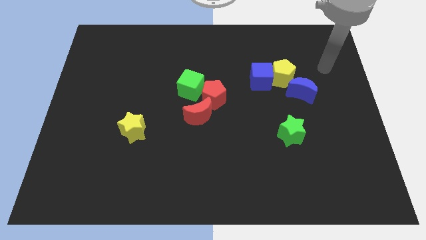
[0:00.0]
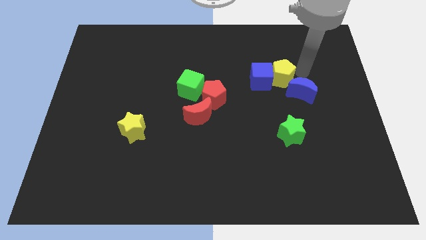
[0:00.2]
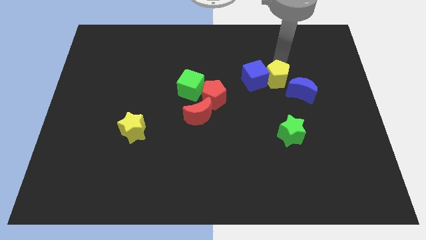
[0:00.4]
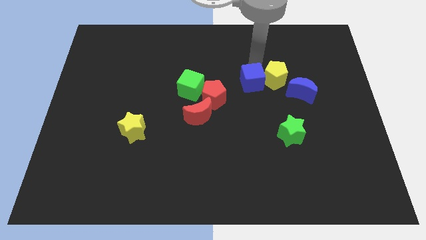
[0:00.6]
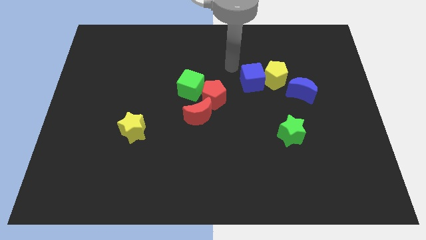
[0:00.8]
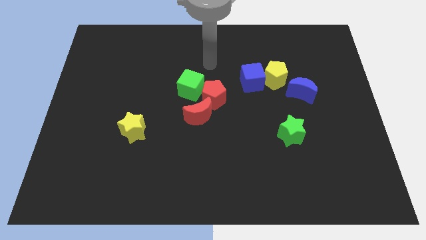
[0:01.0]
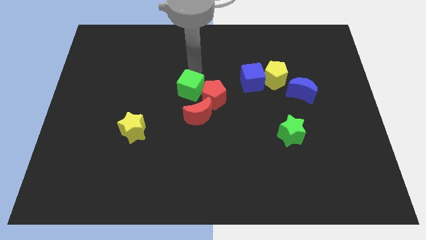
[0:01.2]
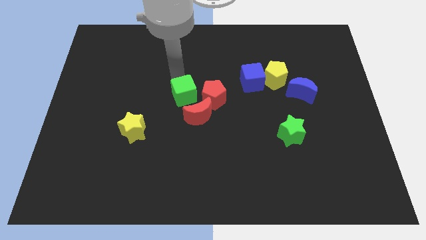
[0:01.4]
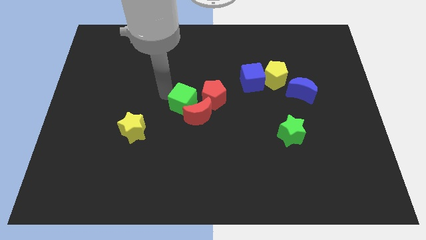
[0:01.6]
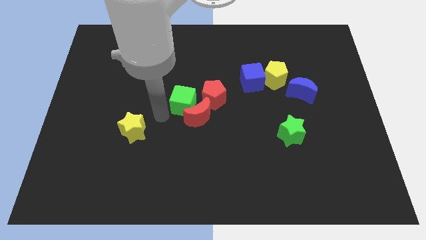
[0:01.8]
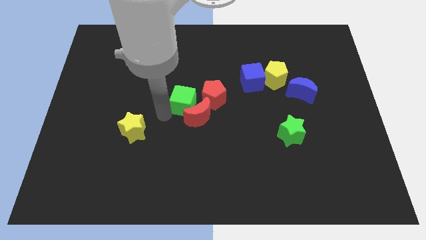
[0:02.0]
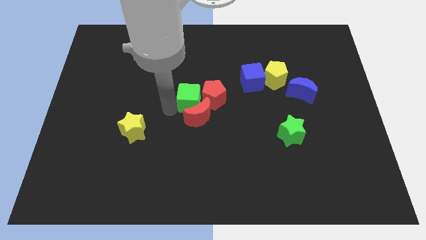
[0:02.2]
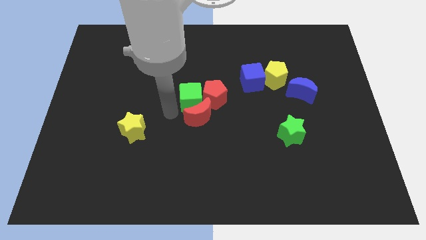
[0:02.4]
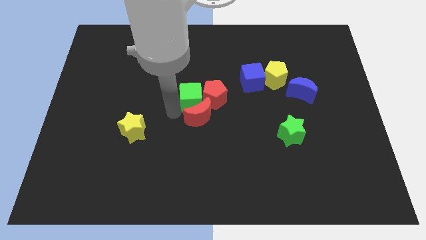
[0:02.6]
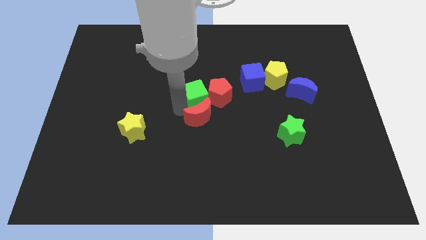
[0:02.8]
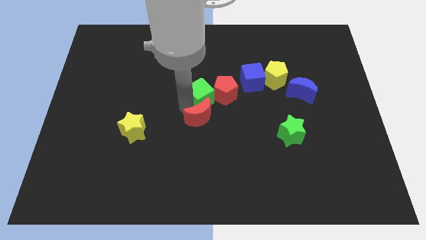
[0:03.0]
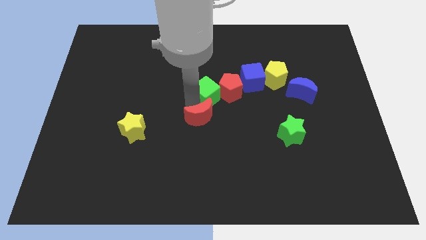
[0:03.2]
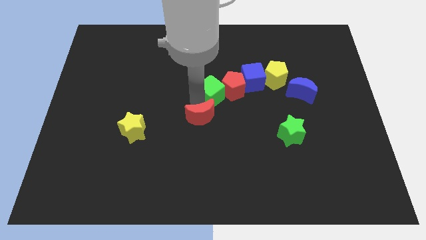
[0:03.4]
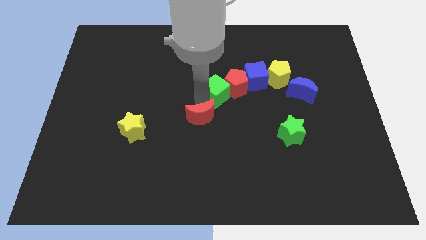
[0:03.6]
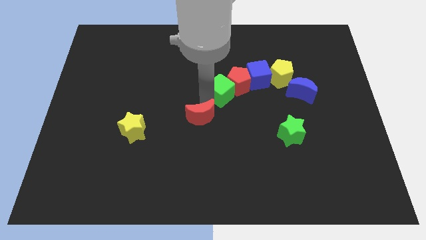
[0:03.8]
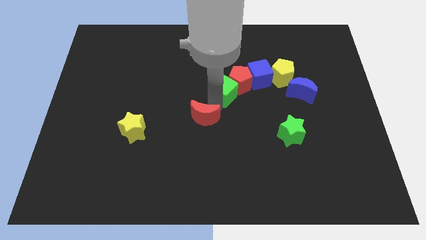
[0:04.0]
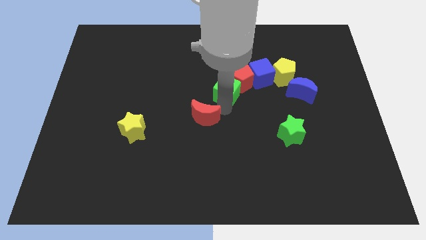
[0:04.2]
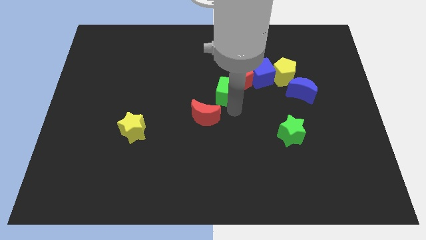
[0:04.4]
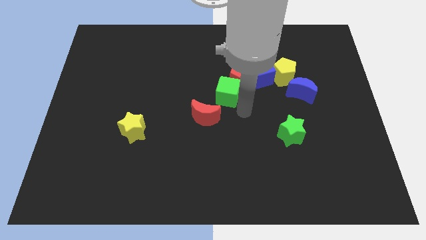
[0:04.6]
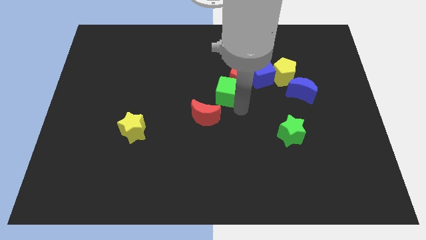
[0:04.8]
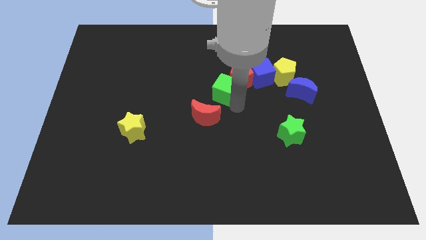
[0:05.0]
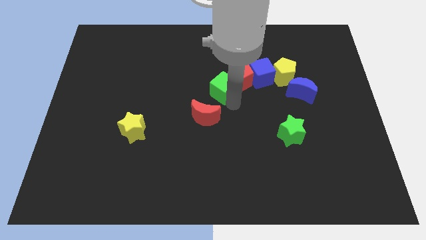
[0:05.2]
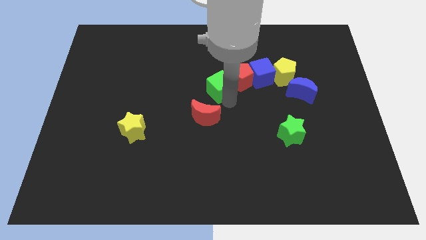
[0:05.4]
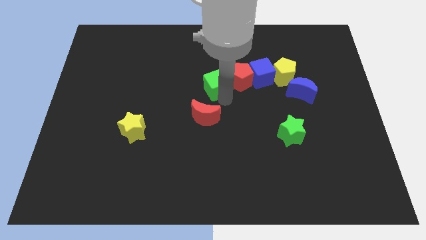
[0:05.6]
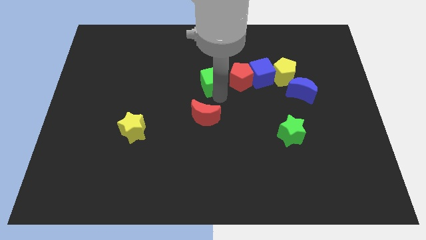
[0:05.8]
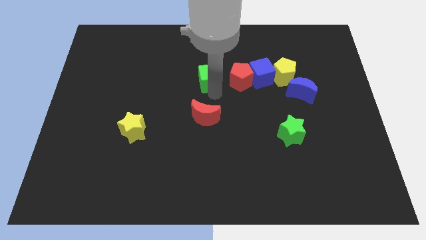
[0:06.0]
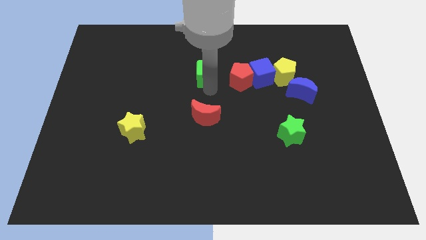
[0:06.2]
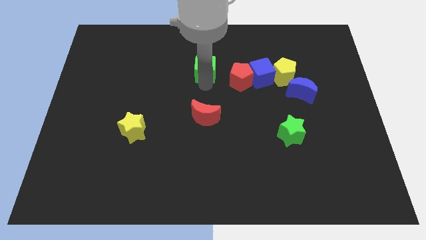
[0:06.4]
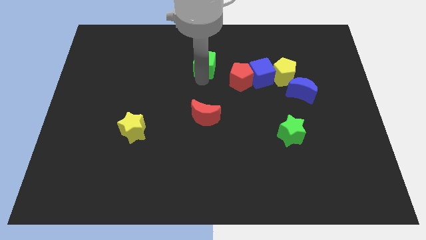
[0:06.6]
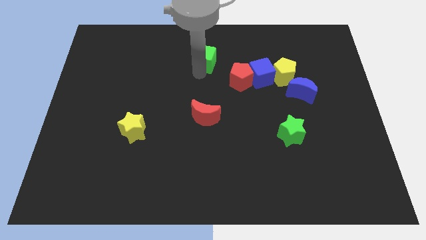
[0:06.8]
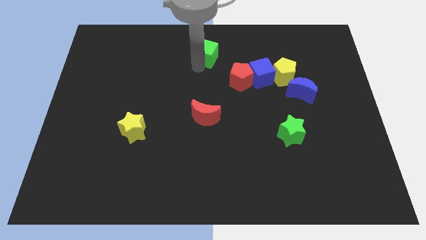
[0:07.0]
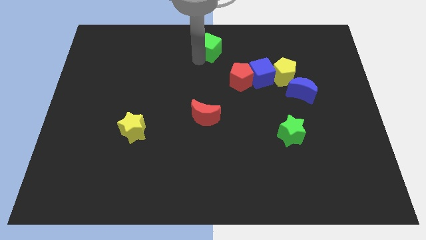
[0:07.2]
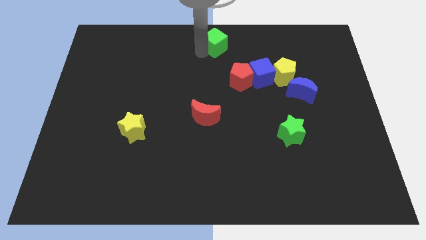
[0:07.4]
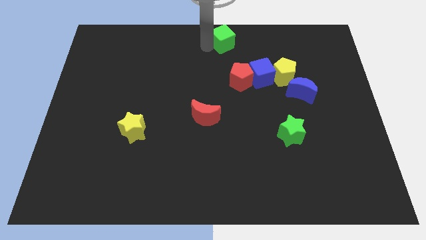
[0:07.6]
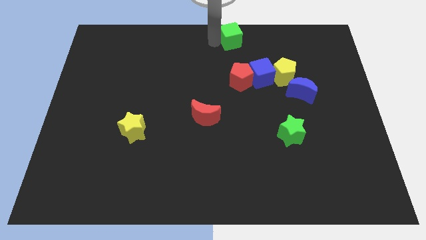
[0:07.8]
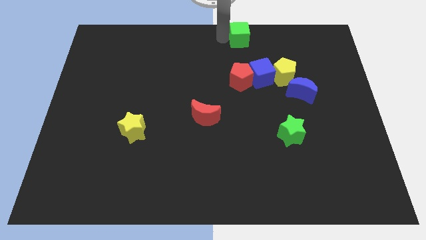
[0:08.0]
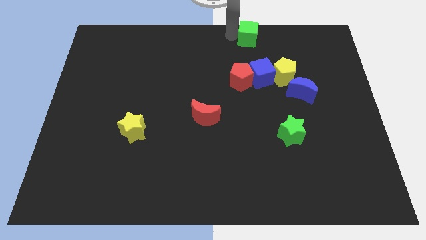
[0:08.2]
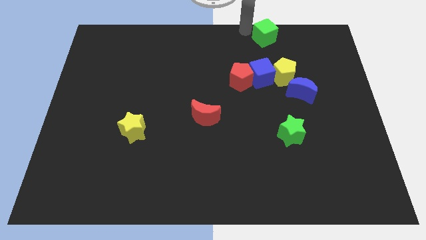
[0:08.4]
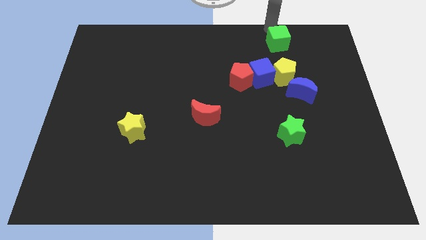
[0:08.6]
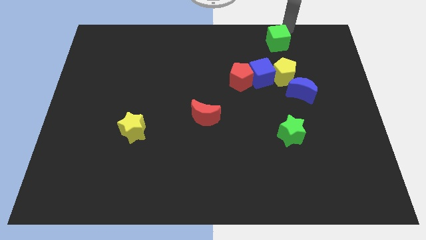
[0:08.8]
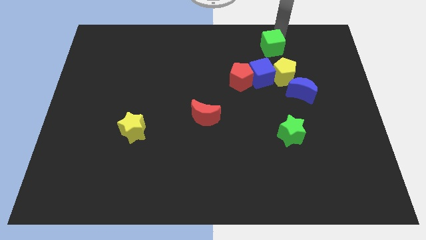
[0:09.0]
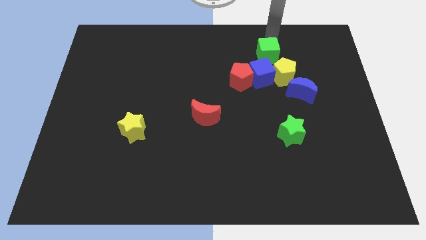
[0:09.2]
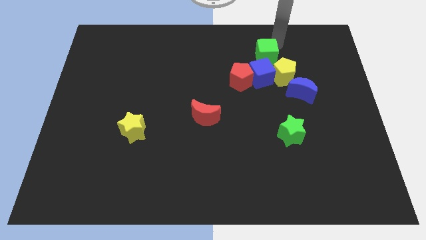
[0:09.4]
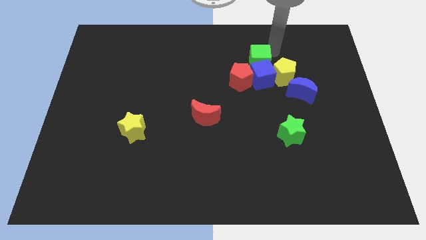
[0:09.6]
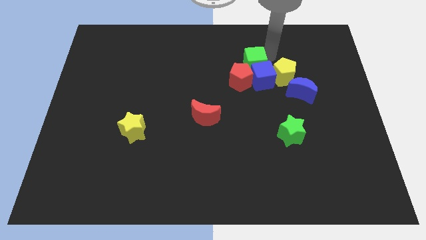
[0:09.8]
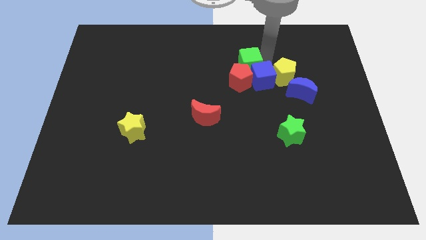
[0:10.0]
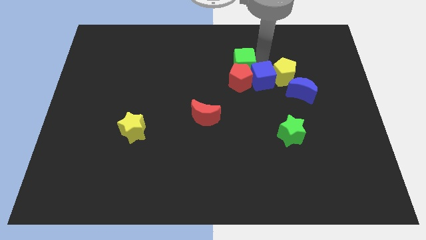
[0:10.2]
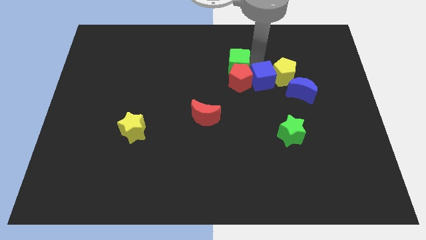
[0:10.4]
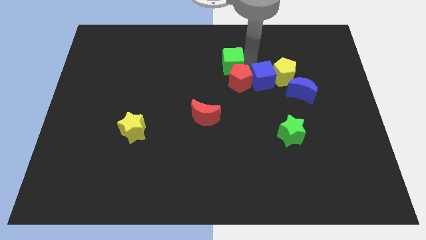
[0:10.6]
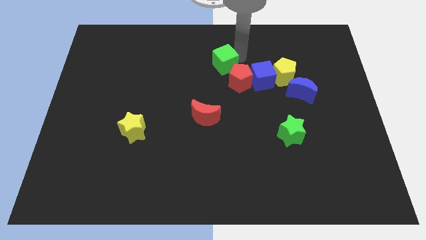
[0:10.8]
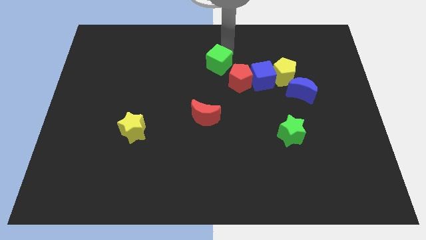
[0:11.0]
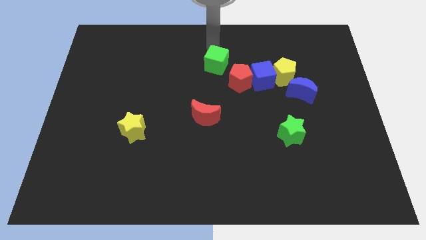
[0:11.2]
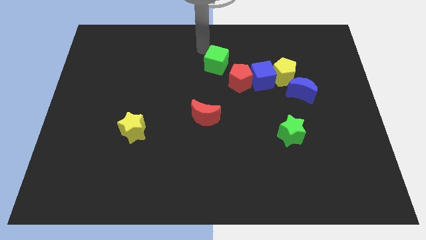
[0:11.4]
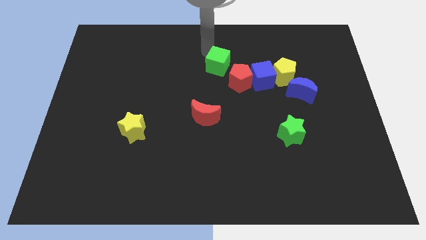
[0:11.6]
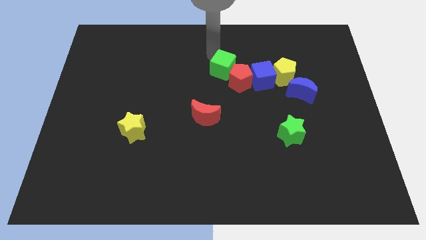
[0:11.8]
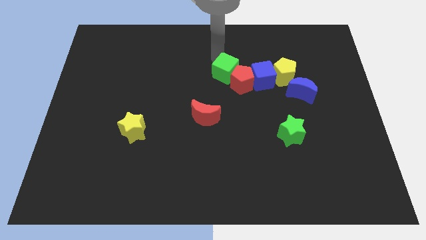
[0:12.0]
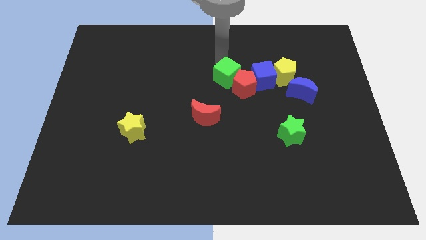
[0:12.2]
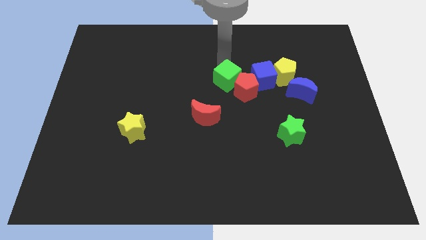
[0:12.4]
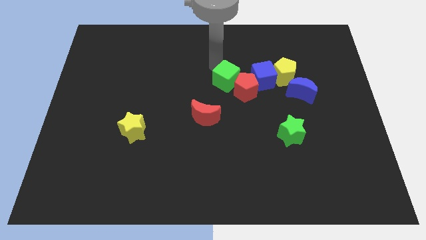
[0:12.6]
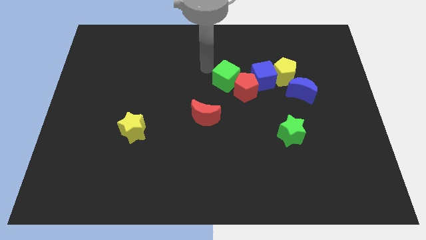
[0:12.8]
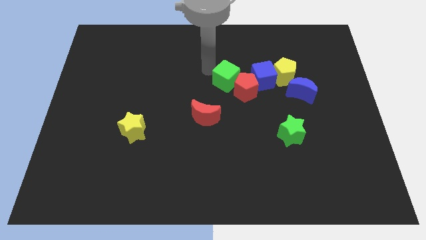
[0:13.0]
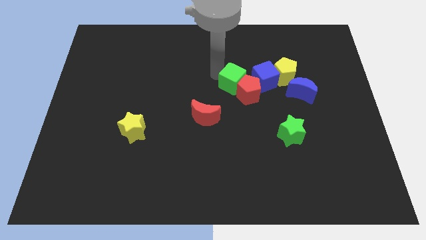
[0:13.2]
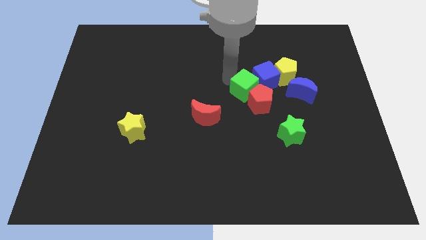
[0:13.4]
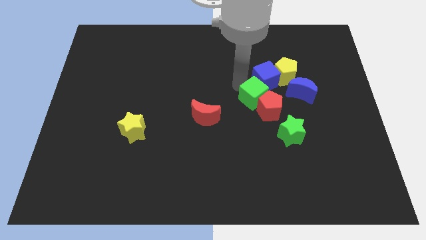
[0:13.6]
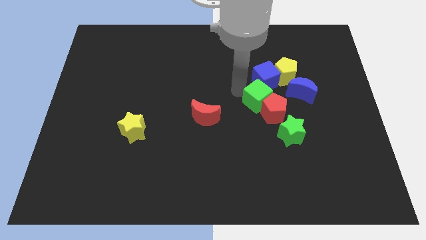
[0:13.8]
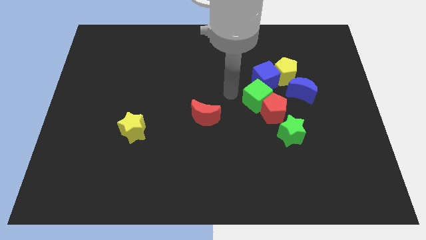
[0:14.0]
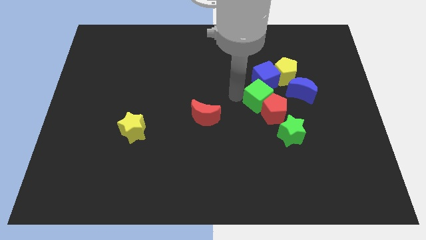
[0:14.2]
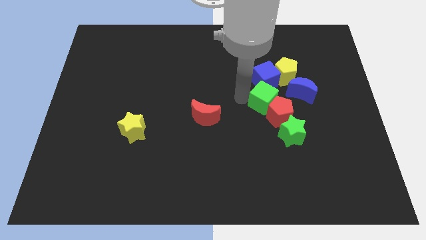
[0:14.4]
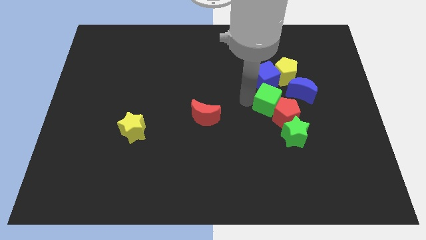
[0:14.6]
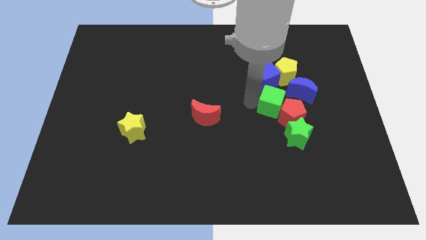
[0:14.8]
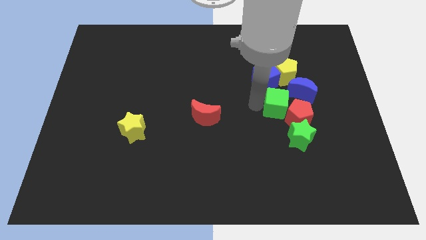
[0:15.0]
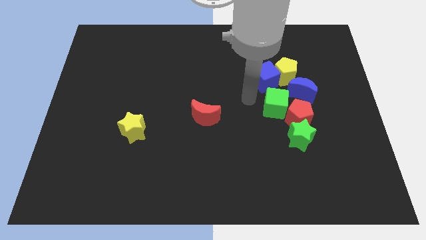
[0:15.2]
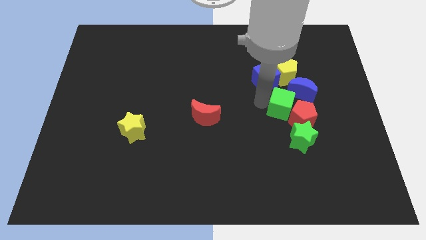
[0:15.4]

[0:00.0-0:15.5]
push the green cube right

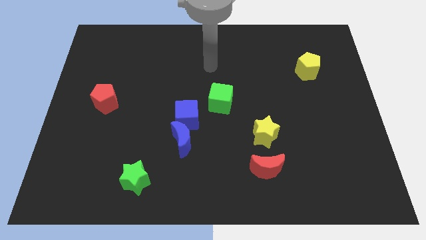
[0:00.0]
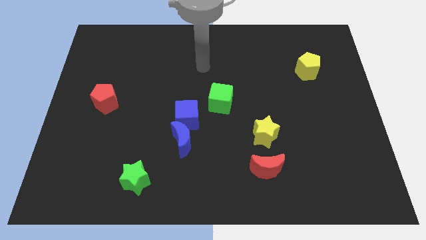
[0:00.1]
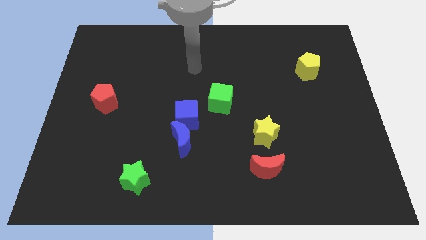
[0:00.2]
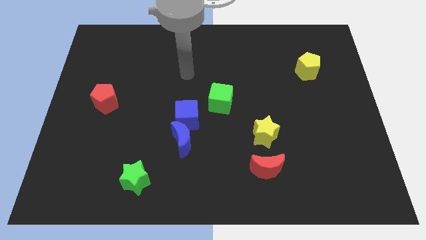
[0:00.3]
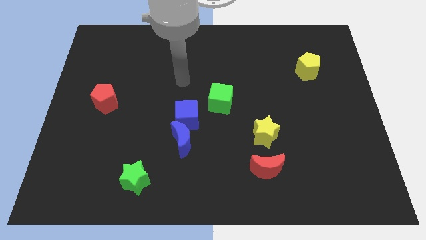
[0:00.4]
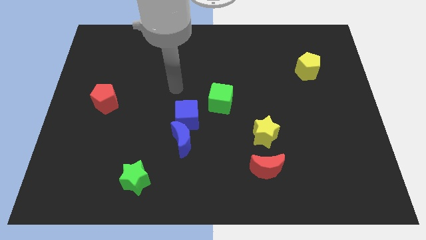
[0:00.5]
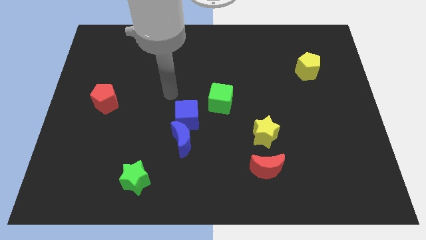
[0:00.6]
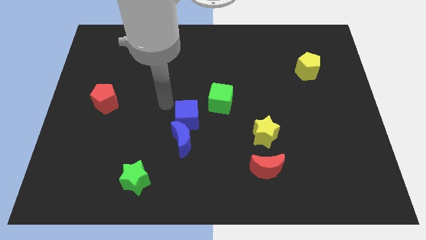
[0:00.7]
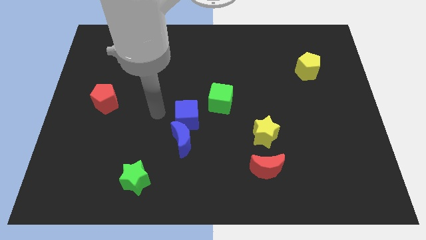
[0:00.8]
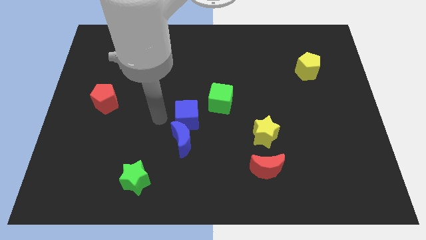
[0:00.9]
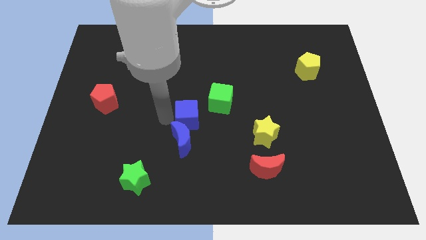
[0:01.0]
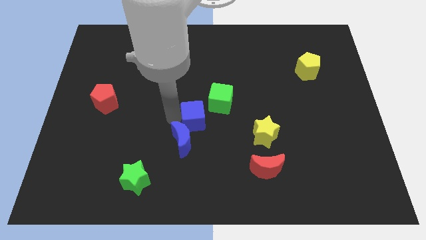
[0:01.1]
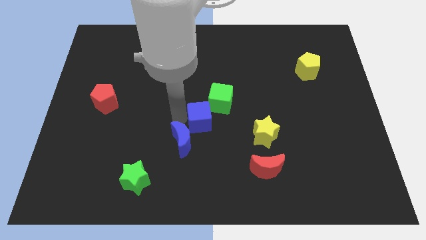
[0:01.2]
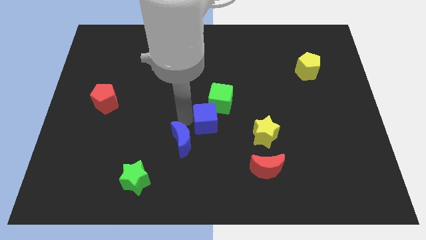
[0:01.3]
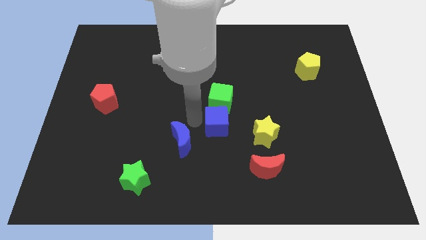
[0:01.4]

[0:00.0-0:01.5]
slightly push the blue cube right
